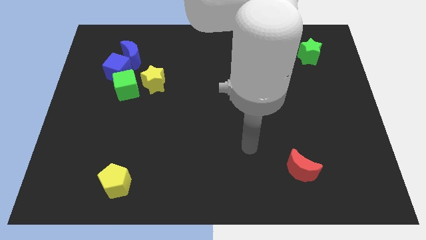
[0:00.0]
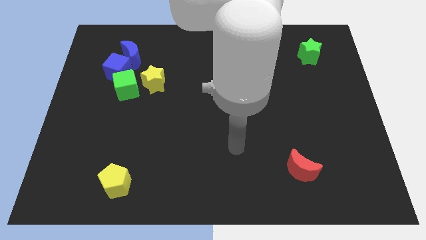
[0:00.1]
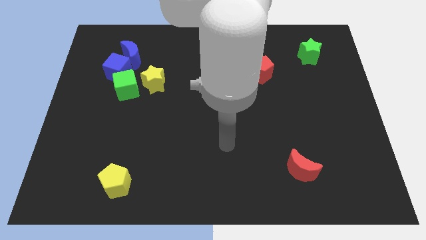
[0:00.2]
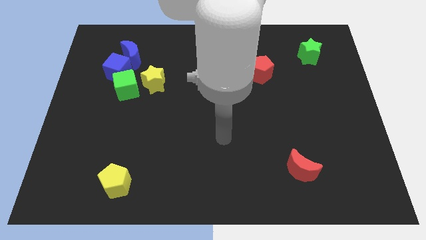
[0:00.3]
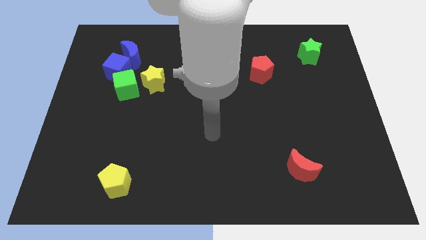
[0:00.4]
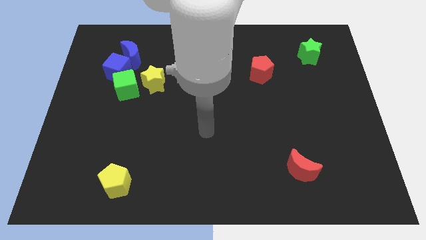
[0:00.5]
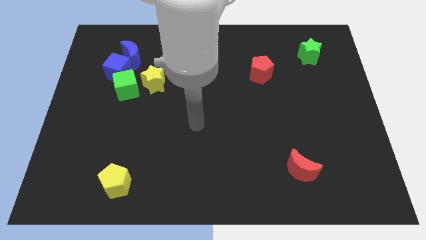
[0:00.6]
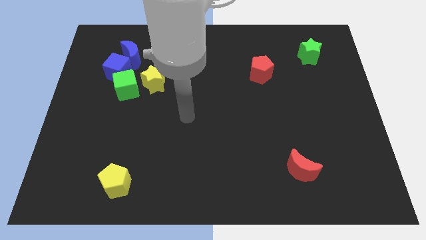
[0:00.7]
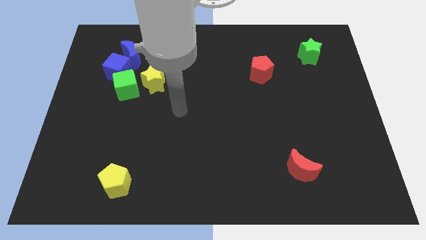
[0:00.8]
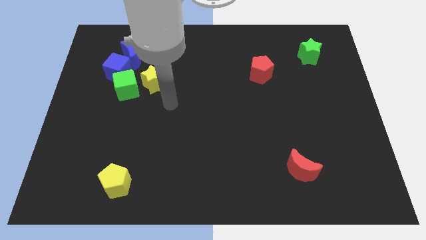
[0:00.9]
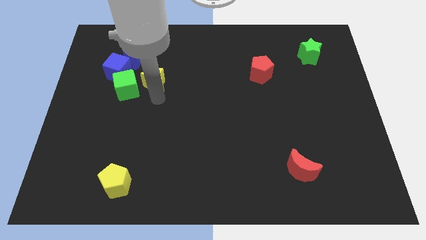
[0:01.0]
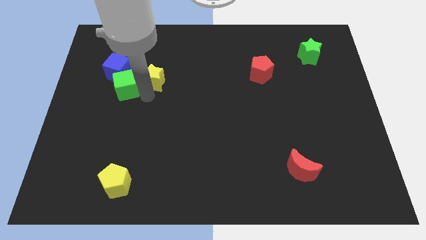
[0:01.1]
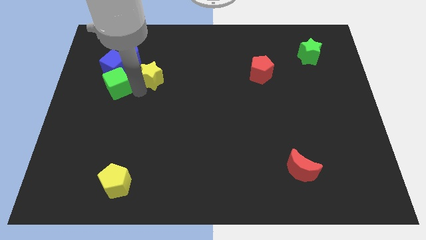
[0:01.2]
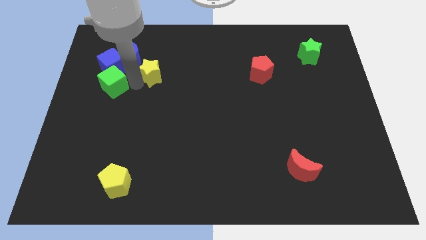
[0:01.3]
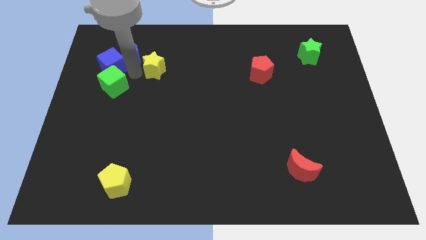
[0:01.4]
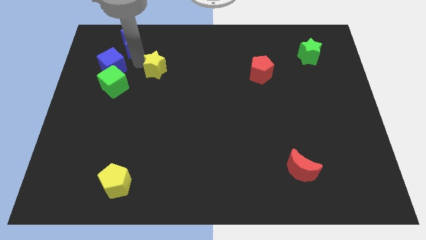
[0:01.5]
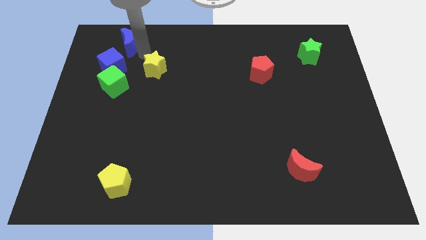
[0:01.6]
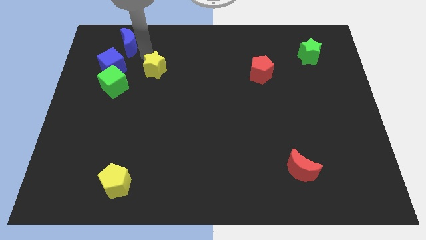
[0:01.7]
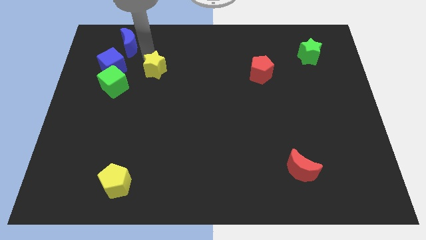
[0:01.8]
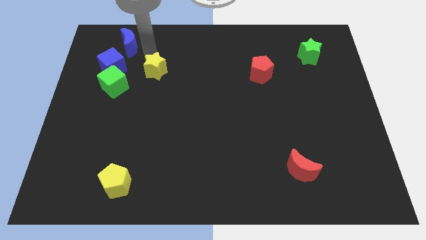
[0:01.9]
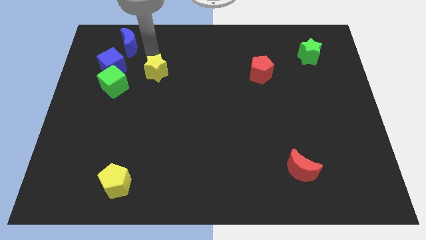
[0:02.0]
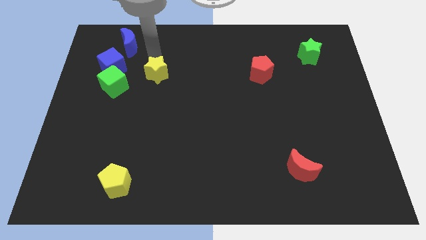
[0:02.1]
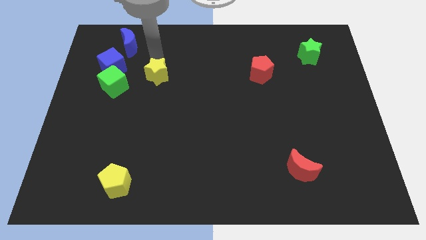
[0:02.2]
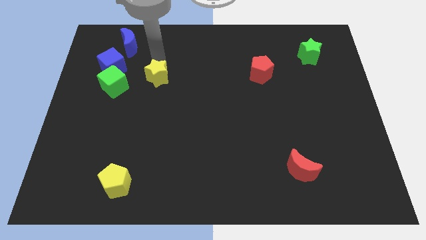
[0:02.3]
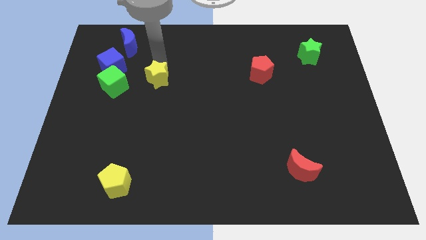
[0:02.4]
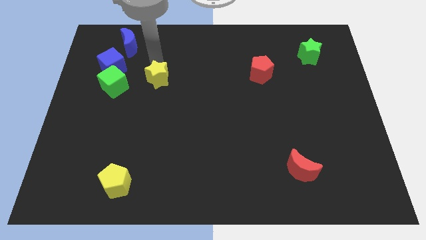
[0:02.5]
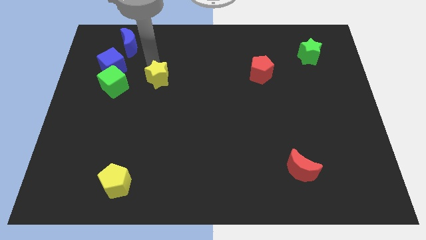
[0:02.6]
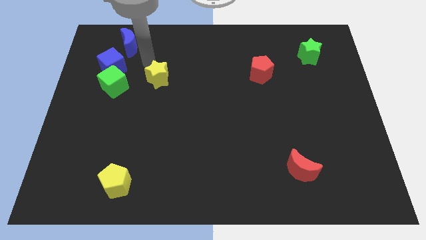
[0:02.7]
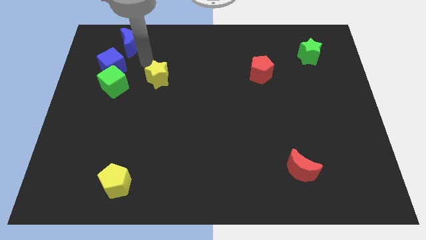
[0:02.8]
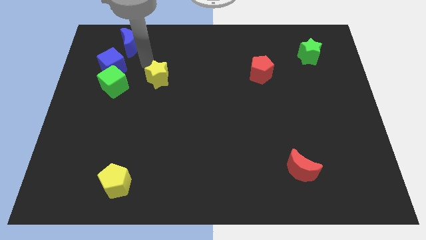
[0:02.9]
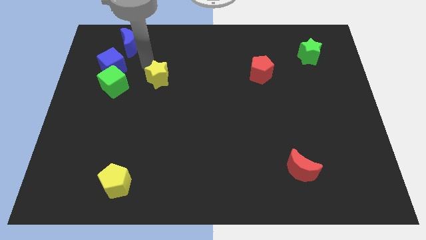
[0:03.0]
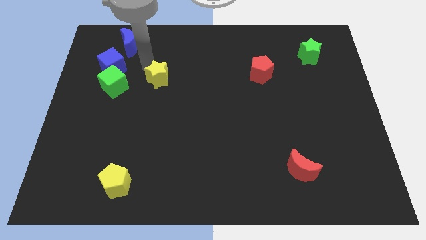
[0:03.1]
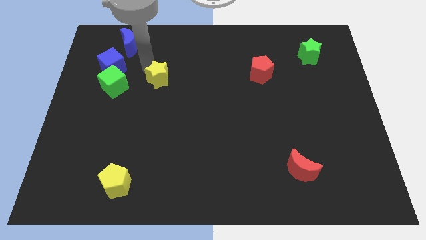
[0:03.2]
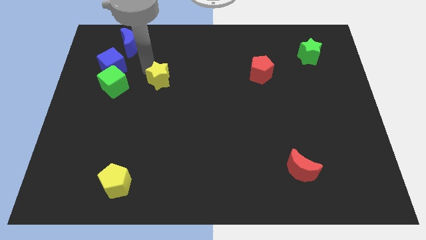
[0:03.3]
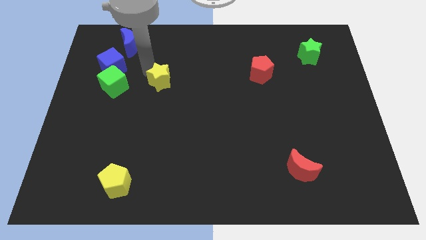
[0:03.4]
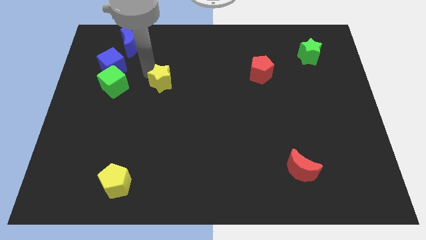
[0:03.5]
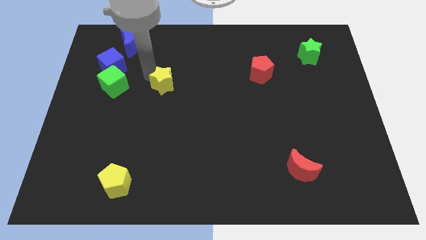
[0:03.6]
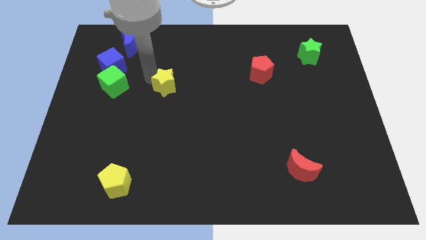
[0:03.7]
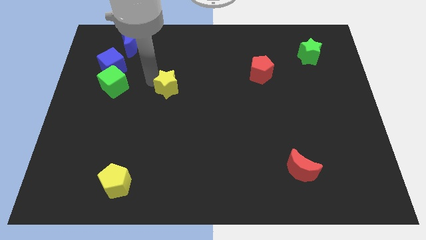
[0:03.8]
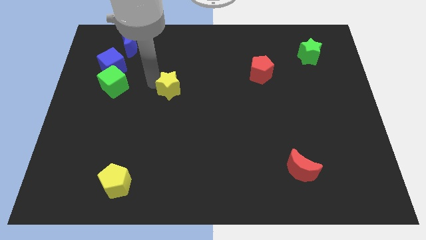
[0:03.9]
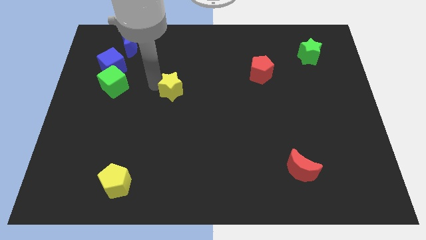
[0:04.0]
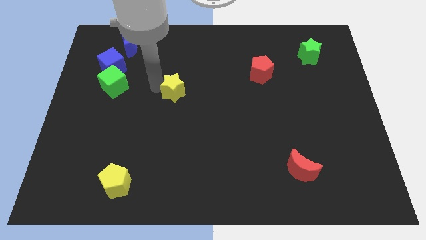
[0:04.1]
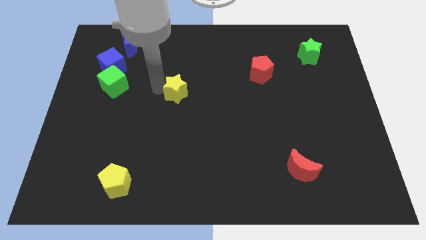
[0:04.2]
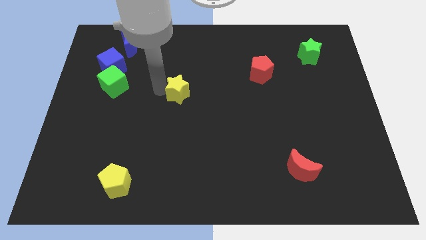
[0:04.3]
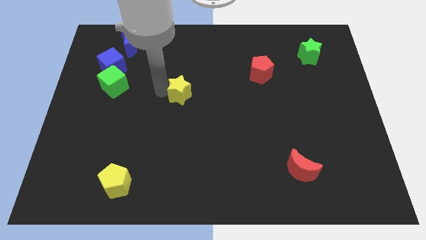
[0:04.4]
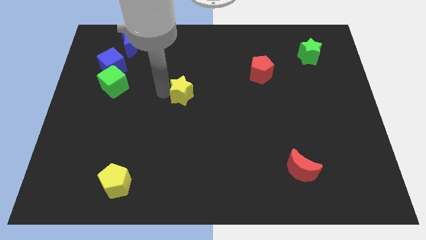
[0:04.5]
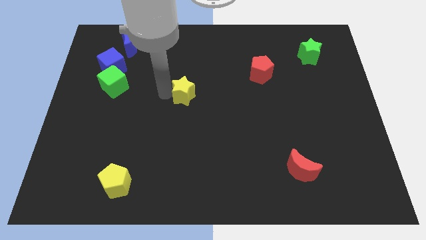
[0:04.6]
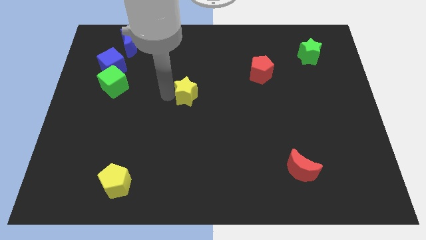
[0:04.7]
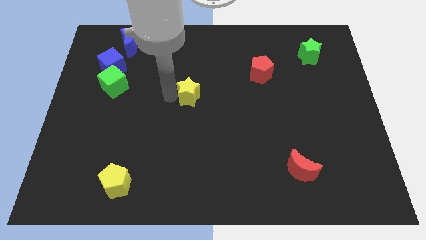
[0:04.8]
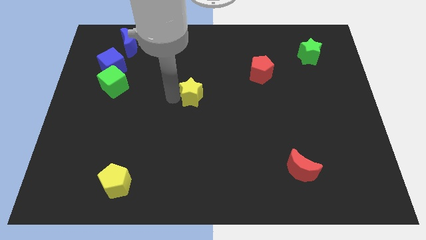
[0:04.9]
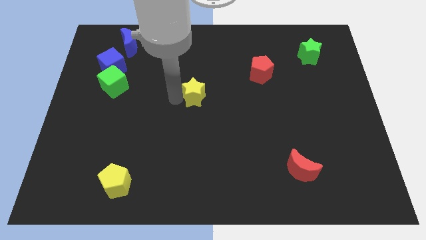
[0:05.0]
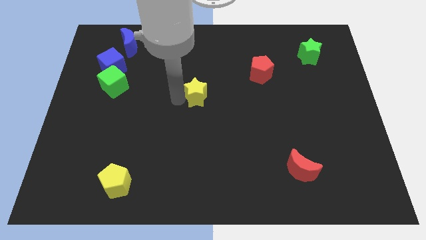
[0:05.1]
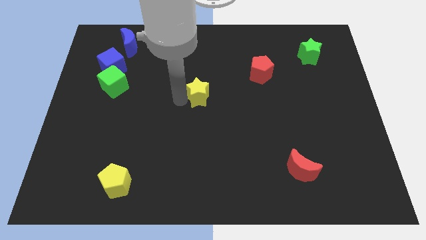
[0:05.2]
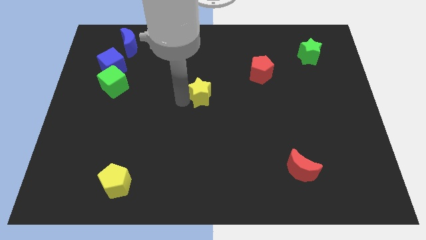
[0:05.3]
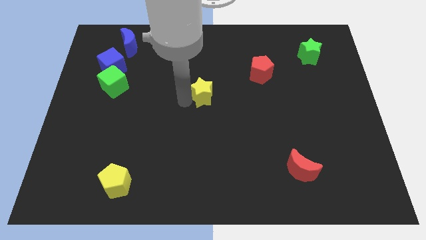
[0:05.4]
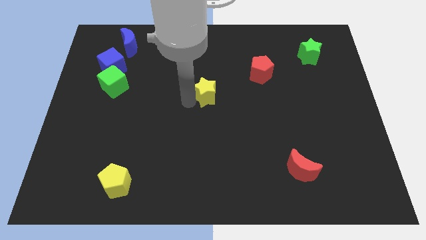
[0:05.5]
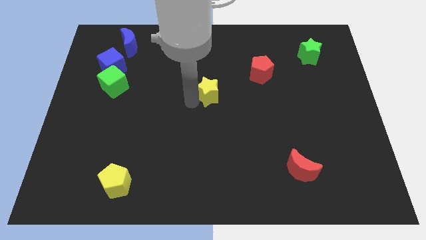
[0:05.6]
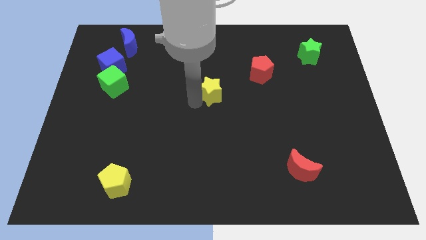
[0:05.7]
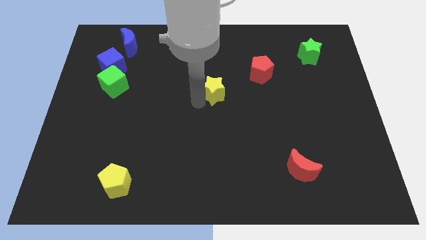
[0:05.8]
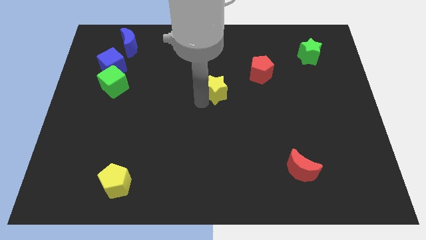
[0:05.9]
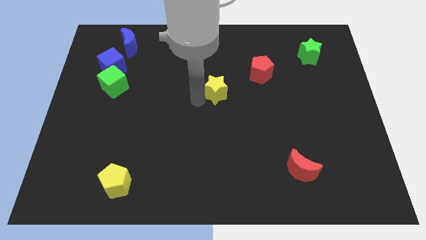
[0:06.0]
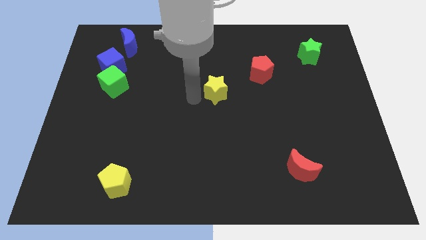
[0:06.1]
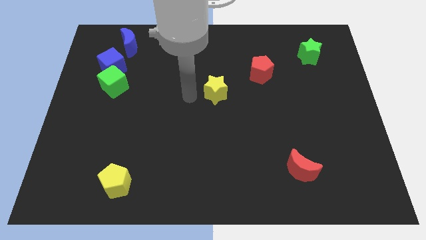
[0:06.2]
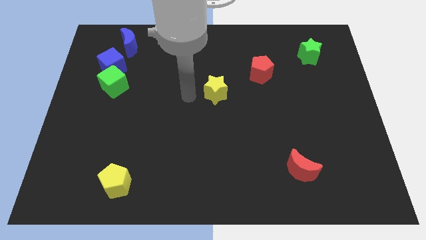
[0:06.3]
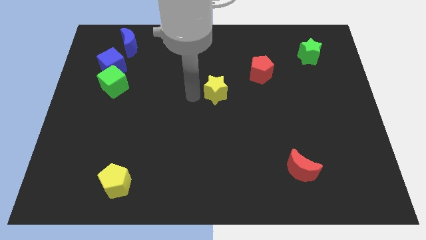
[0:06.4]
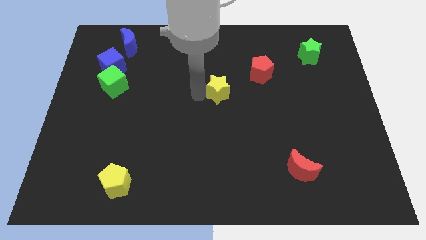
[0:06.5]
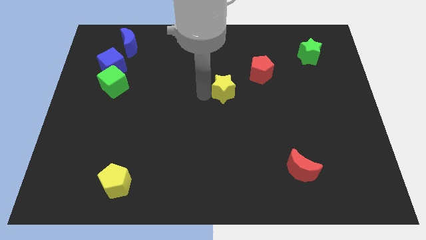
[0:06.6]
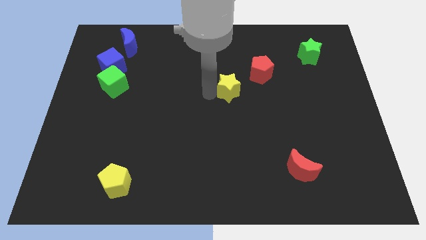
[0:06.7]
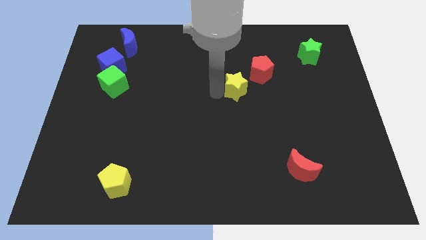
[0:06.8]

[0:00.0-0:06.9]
push the yellow star to the right

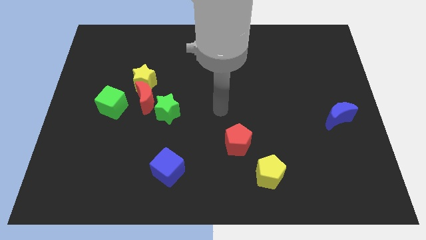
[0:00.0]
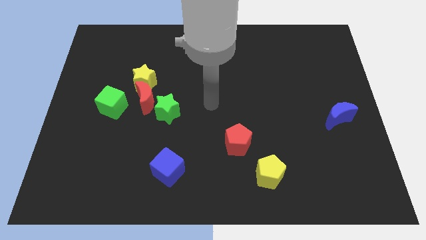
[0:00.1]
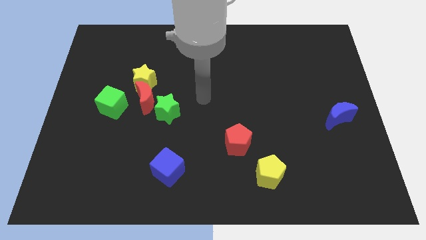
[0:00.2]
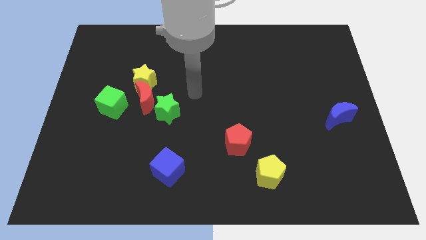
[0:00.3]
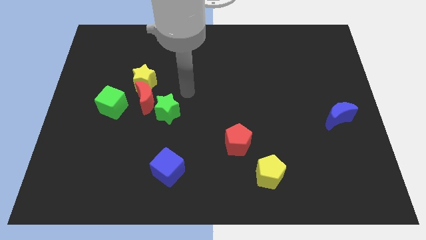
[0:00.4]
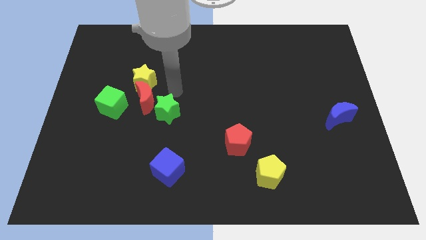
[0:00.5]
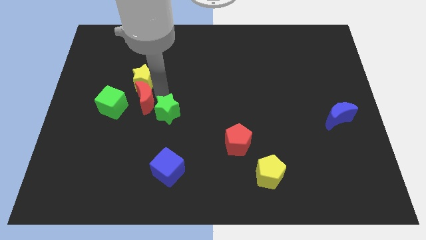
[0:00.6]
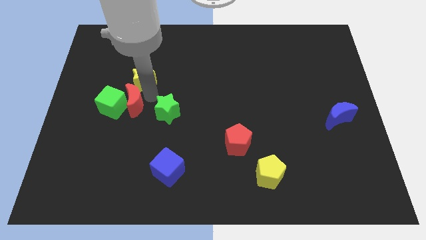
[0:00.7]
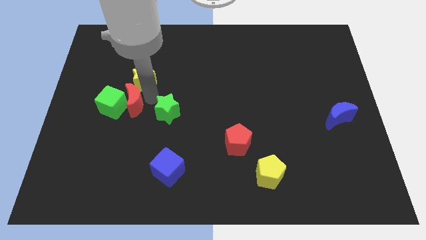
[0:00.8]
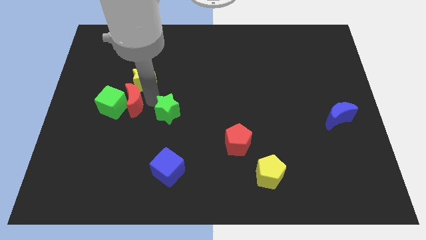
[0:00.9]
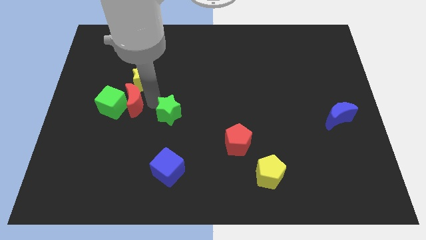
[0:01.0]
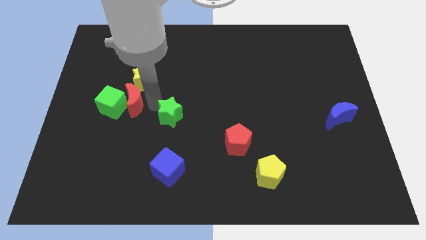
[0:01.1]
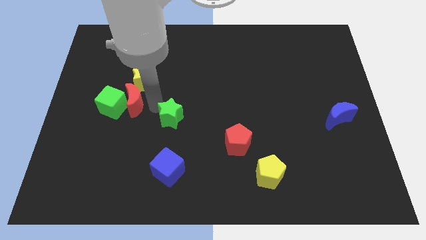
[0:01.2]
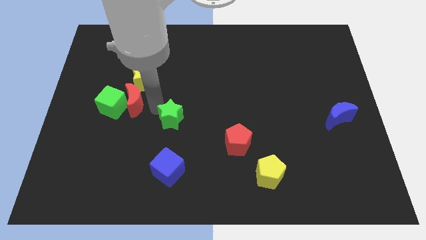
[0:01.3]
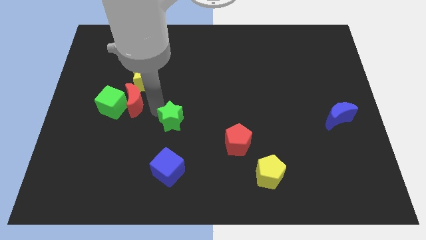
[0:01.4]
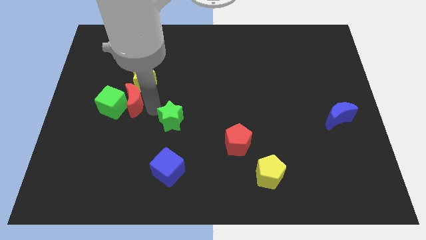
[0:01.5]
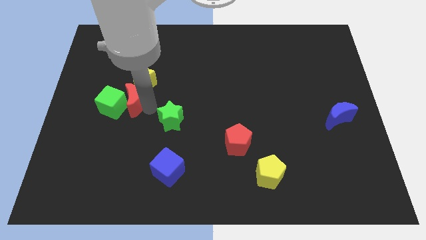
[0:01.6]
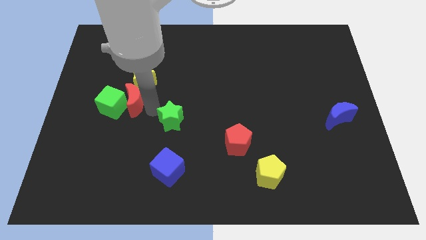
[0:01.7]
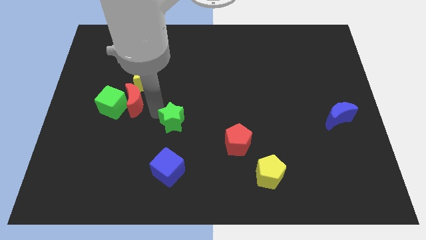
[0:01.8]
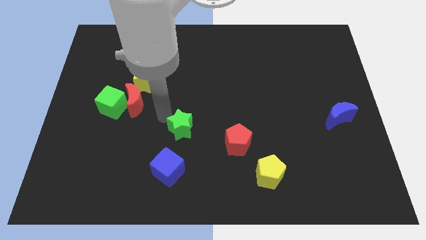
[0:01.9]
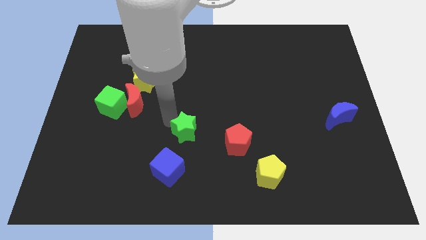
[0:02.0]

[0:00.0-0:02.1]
slightly move the green star diagonally downwards and right
